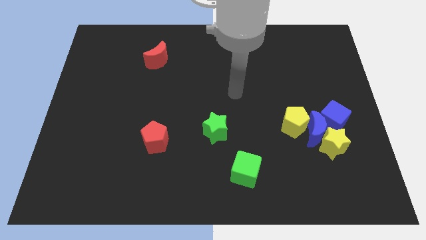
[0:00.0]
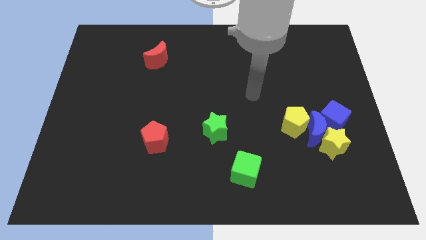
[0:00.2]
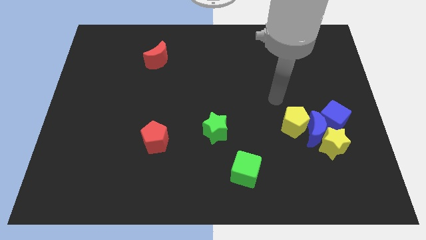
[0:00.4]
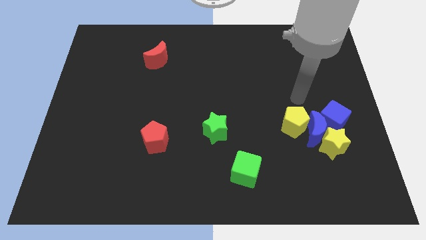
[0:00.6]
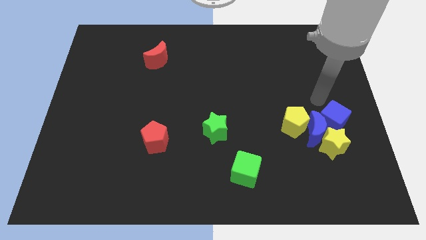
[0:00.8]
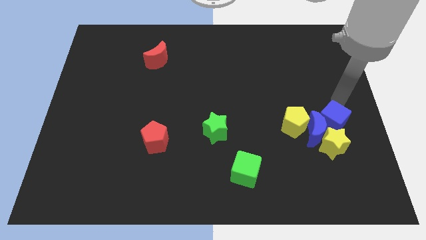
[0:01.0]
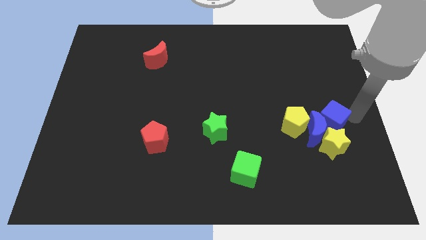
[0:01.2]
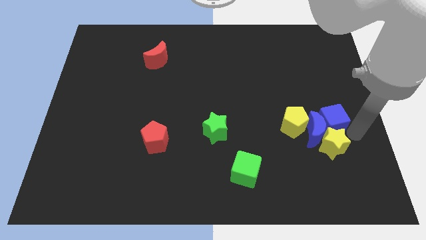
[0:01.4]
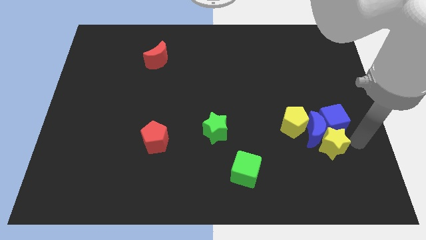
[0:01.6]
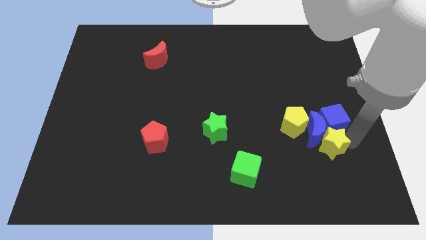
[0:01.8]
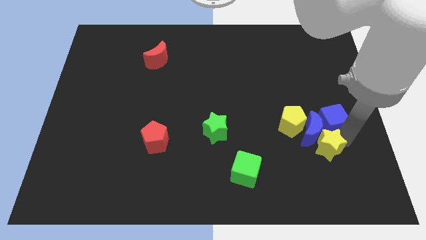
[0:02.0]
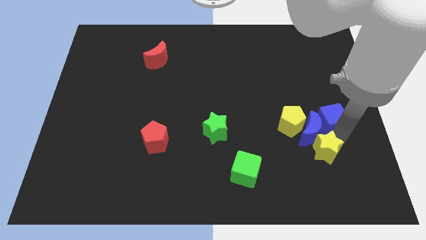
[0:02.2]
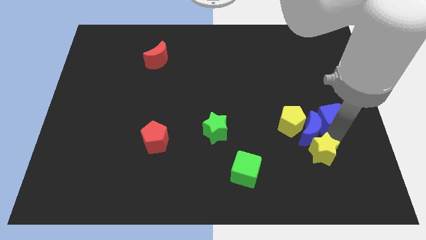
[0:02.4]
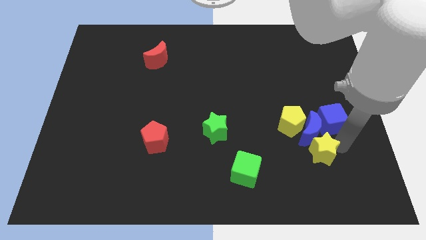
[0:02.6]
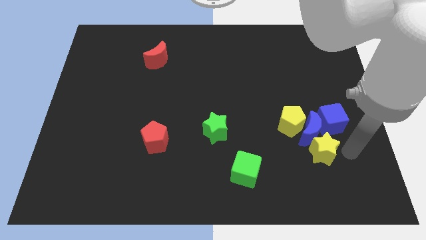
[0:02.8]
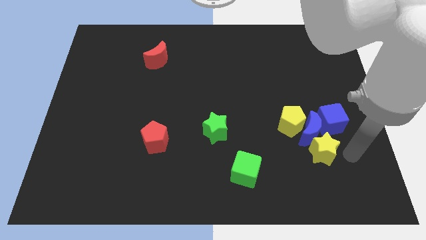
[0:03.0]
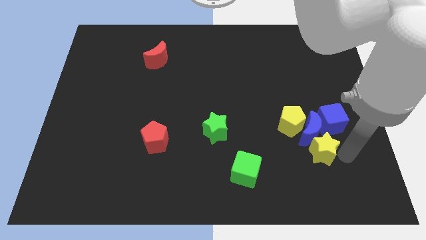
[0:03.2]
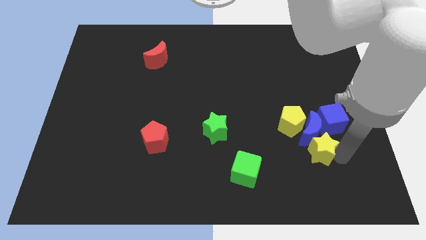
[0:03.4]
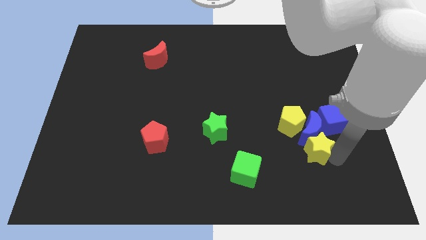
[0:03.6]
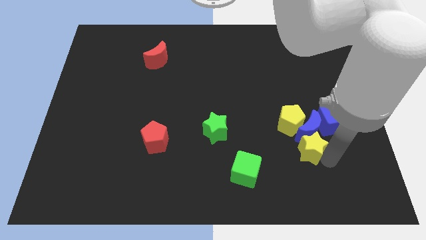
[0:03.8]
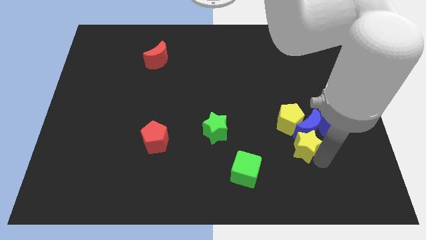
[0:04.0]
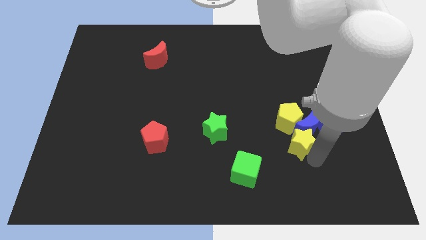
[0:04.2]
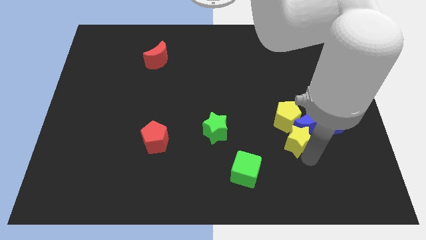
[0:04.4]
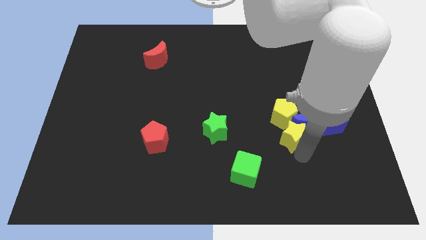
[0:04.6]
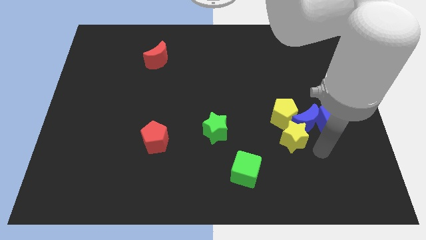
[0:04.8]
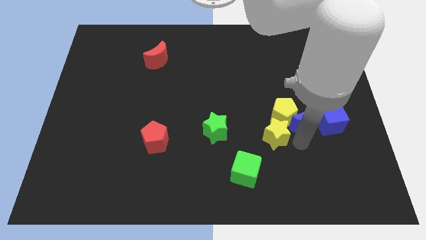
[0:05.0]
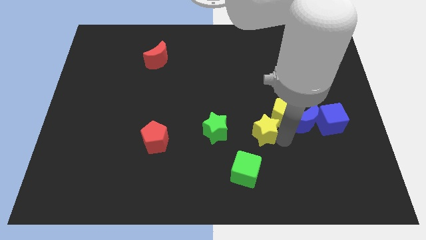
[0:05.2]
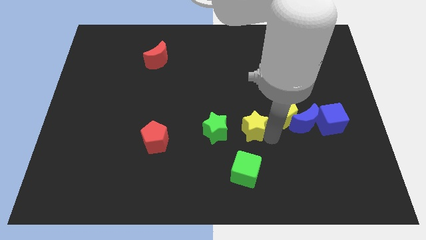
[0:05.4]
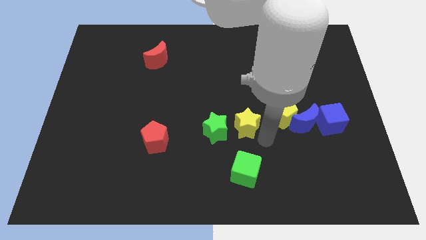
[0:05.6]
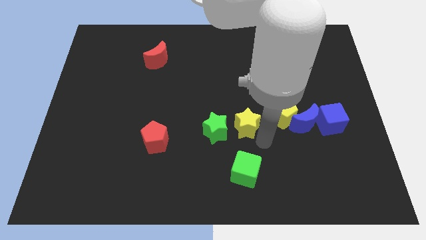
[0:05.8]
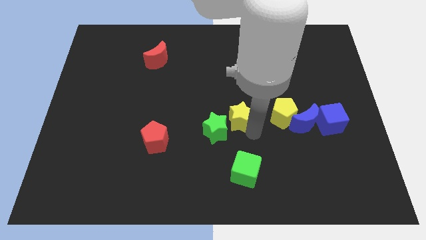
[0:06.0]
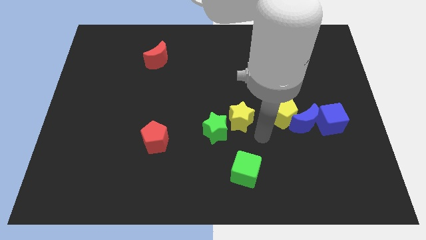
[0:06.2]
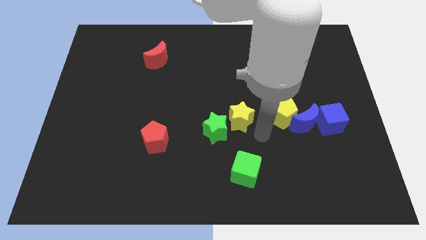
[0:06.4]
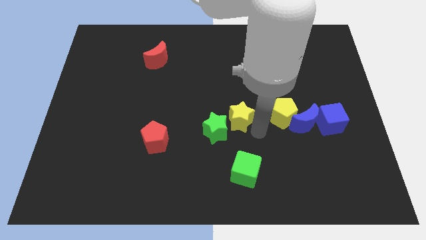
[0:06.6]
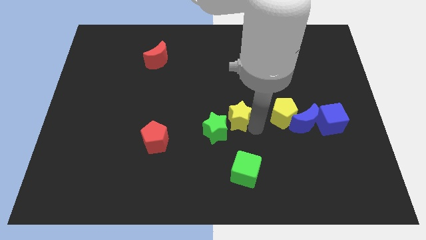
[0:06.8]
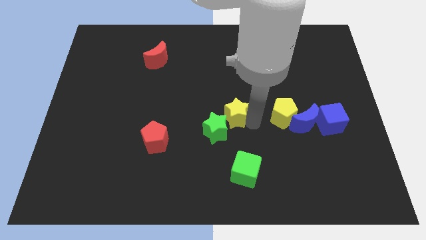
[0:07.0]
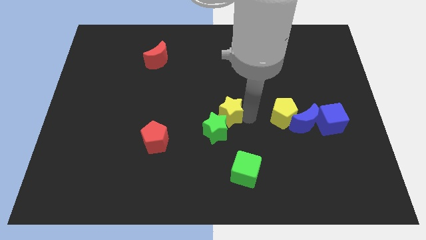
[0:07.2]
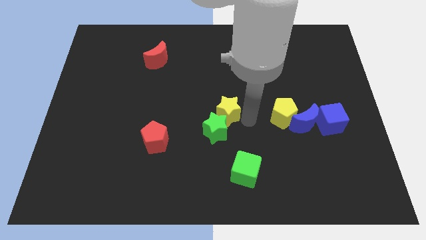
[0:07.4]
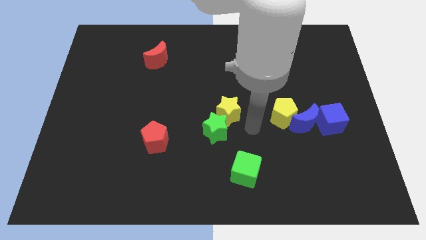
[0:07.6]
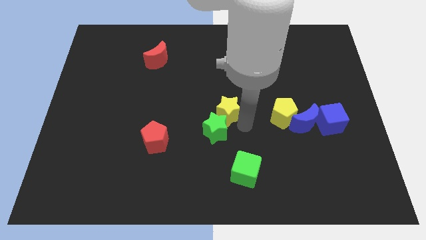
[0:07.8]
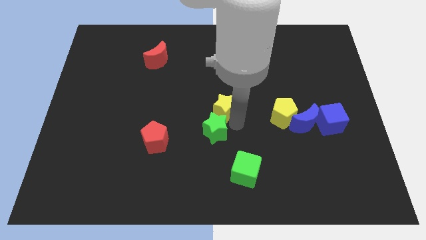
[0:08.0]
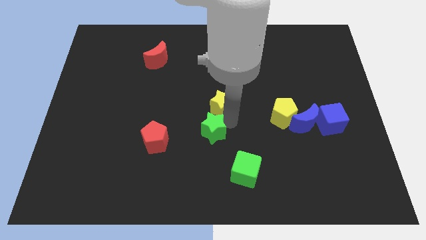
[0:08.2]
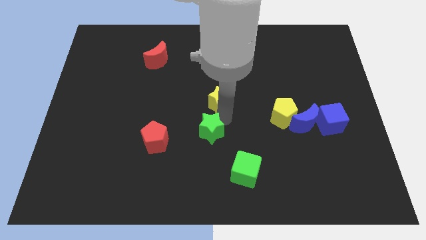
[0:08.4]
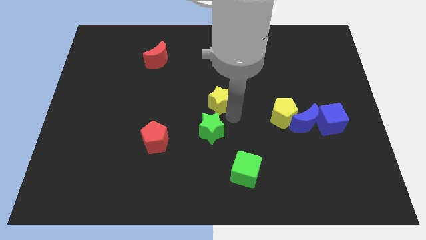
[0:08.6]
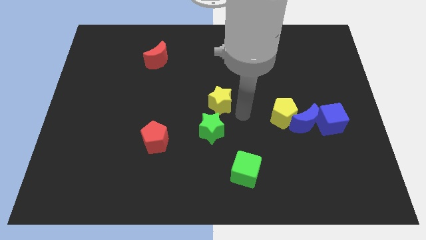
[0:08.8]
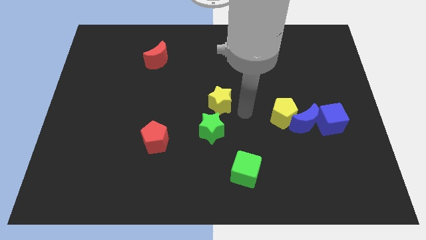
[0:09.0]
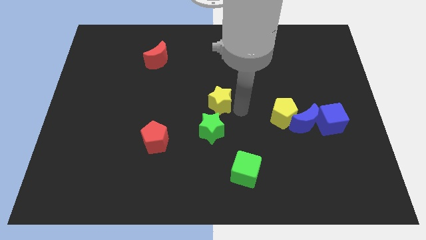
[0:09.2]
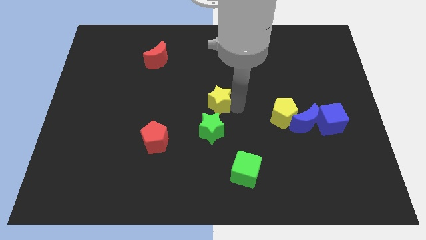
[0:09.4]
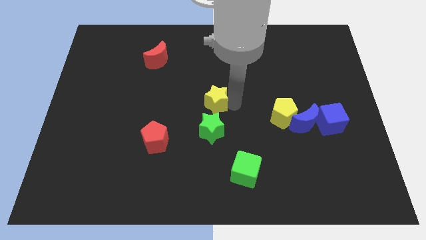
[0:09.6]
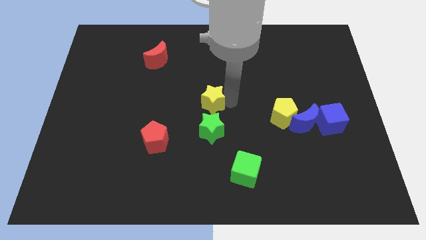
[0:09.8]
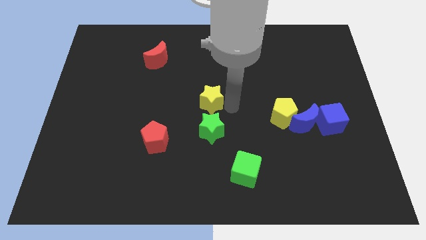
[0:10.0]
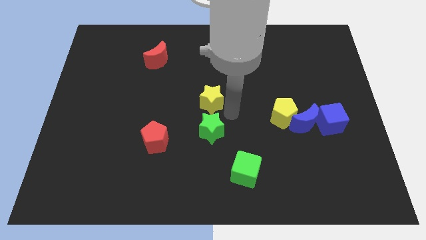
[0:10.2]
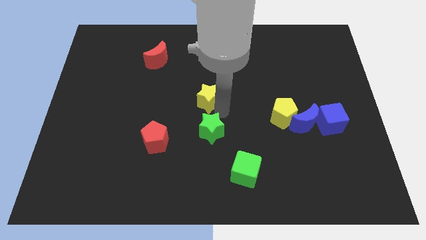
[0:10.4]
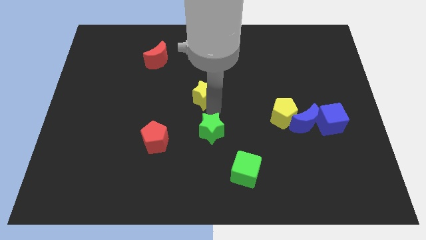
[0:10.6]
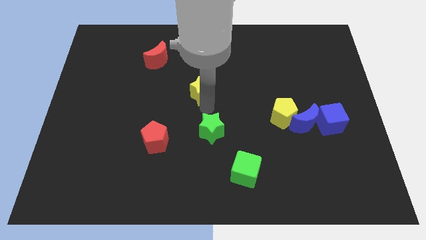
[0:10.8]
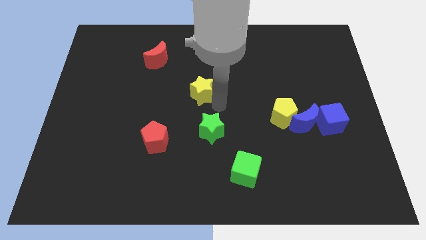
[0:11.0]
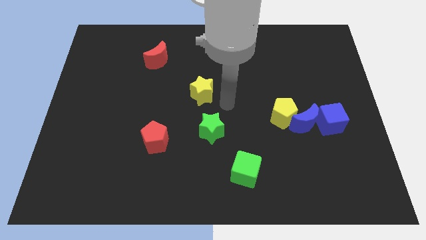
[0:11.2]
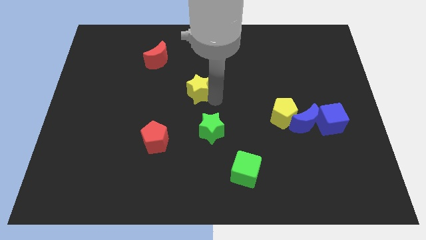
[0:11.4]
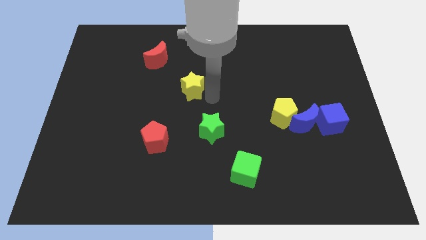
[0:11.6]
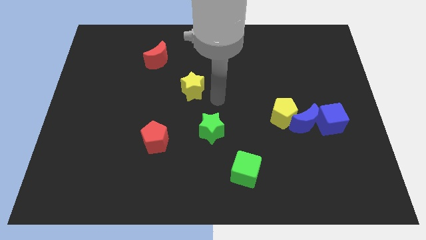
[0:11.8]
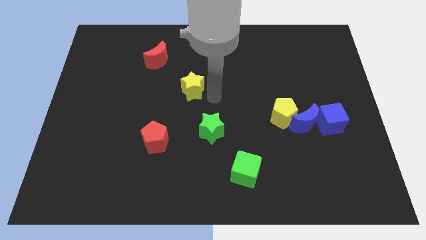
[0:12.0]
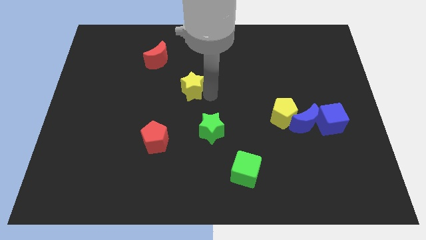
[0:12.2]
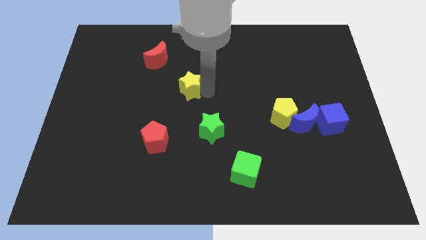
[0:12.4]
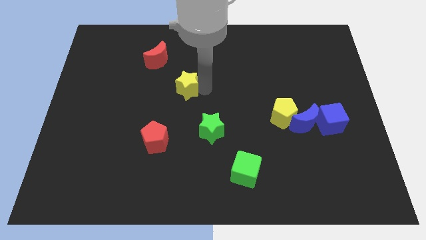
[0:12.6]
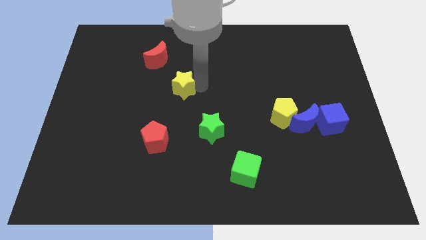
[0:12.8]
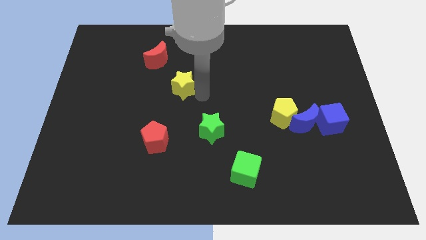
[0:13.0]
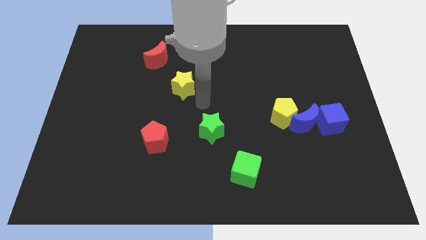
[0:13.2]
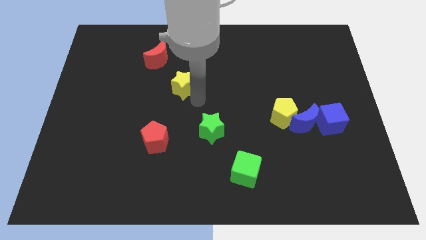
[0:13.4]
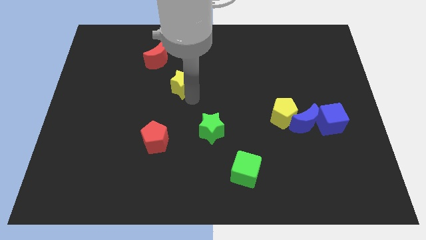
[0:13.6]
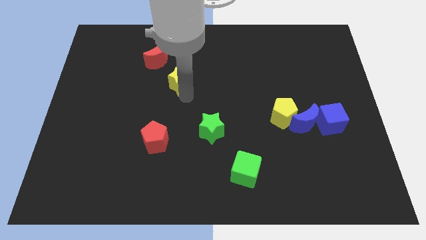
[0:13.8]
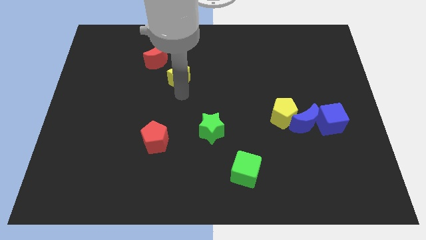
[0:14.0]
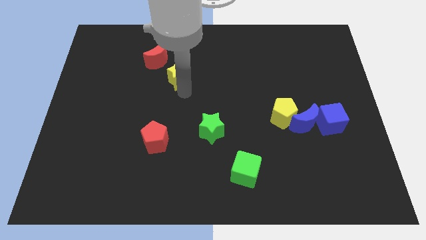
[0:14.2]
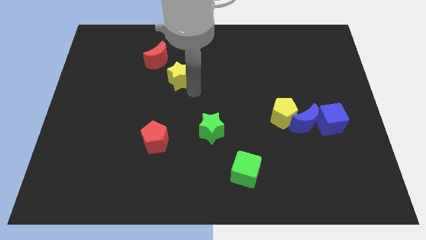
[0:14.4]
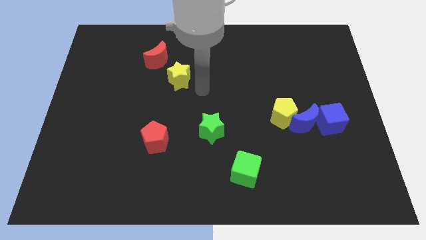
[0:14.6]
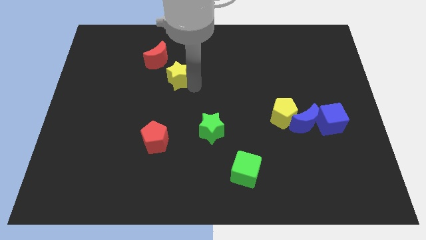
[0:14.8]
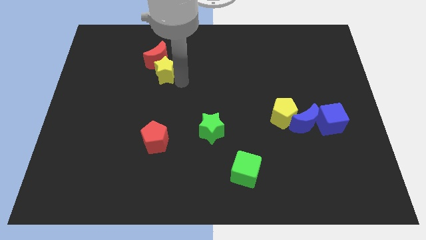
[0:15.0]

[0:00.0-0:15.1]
slide the yellow star next to the red moon

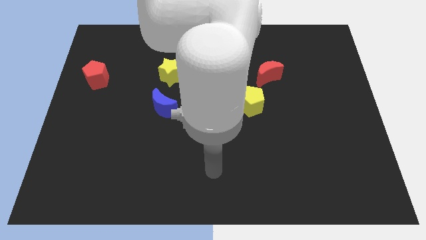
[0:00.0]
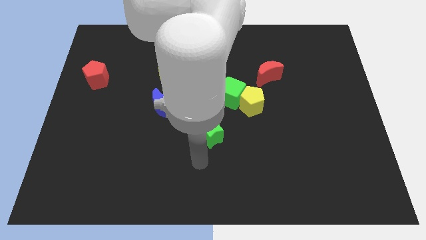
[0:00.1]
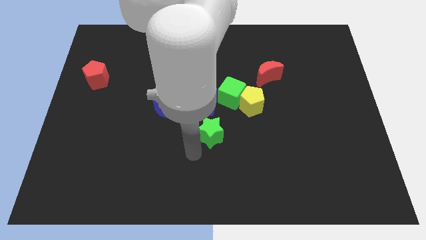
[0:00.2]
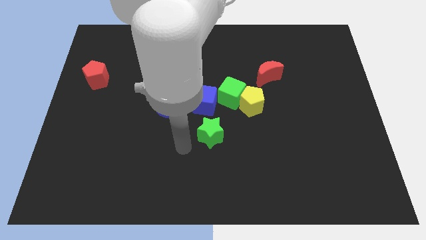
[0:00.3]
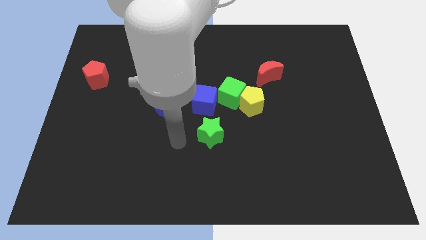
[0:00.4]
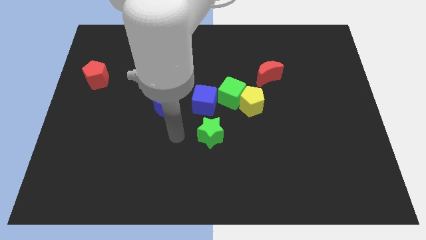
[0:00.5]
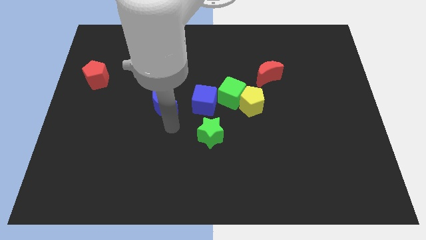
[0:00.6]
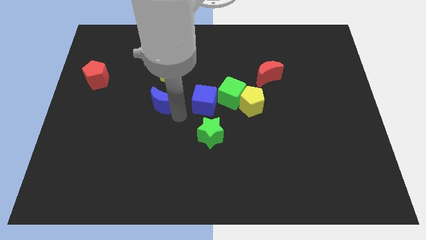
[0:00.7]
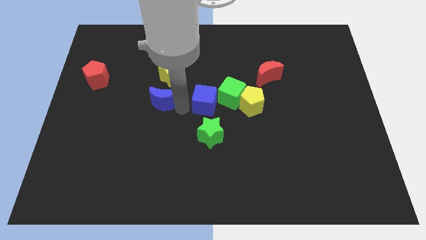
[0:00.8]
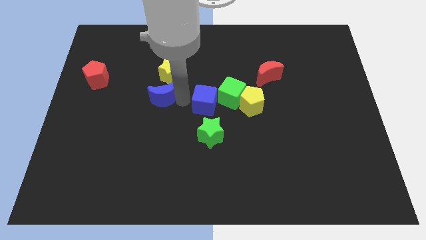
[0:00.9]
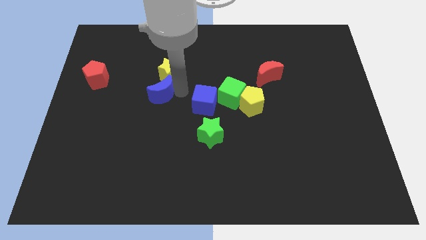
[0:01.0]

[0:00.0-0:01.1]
move the yellow star towards the blue moon
